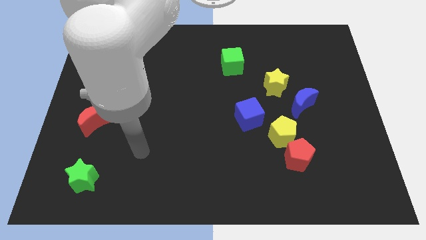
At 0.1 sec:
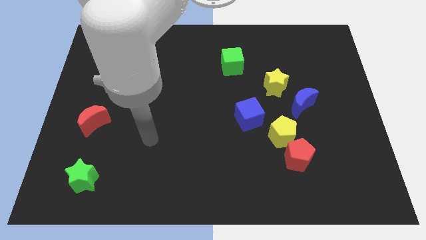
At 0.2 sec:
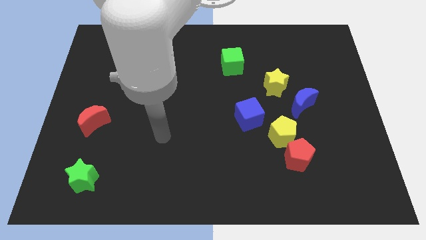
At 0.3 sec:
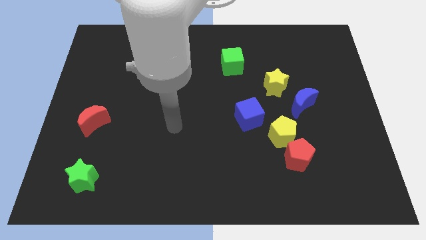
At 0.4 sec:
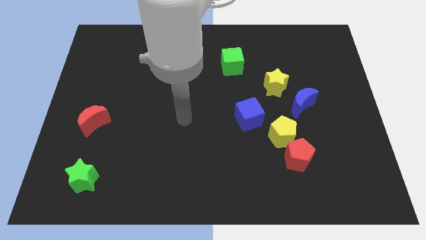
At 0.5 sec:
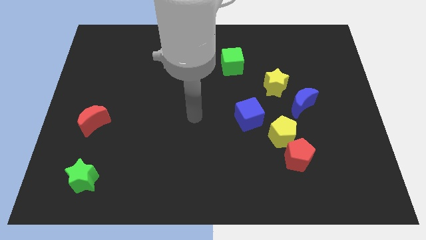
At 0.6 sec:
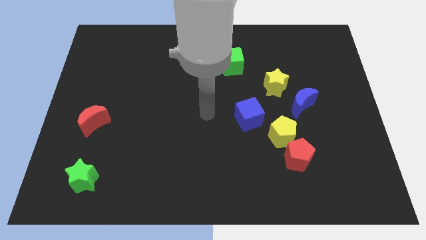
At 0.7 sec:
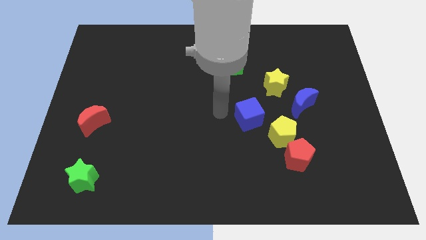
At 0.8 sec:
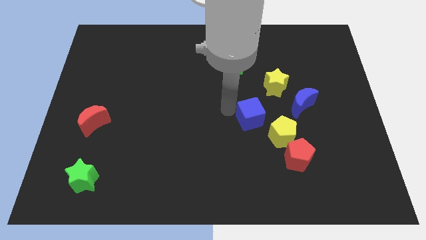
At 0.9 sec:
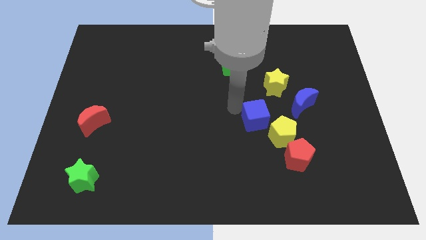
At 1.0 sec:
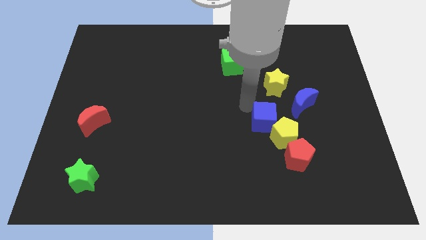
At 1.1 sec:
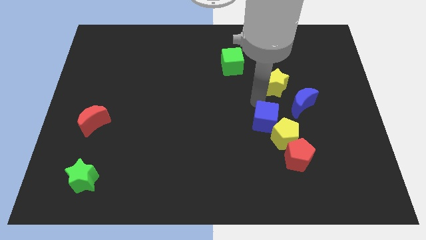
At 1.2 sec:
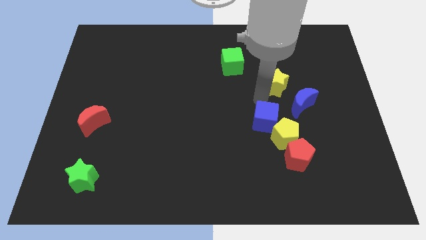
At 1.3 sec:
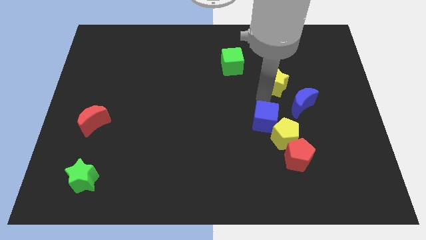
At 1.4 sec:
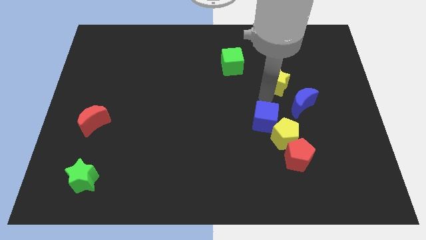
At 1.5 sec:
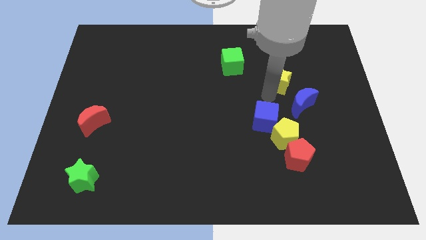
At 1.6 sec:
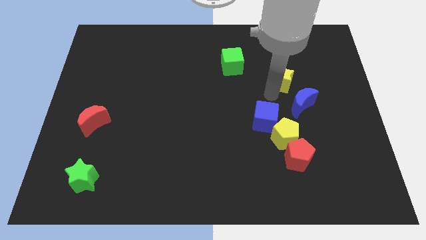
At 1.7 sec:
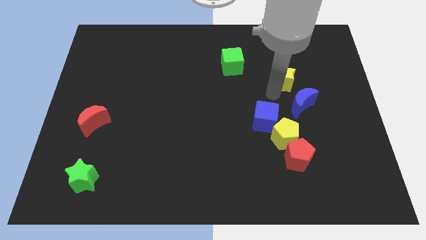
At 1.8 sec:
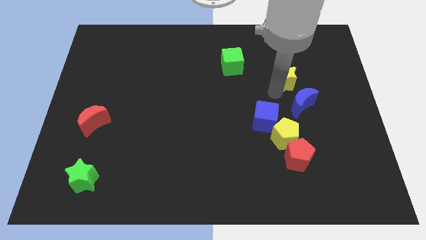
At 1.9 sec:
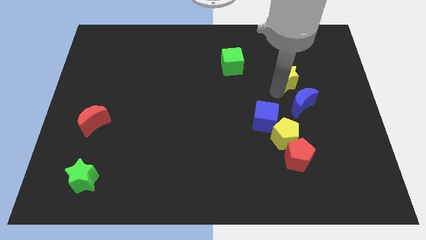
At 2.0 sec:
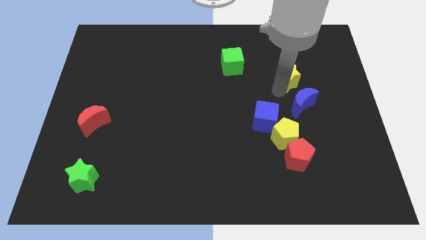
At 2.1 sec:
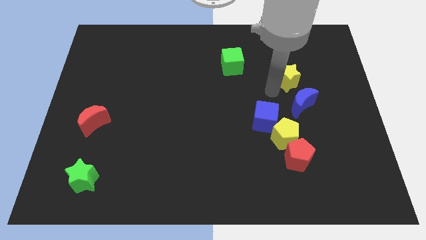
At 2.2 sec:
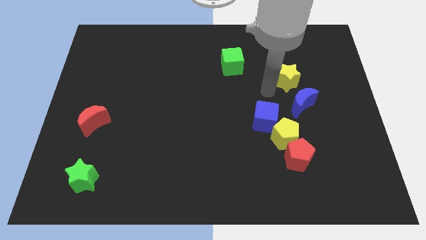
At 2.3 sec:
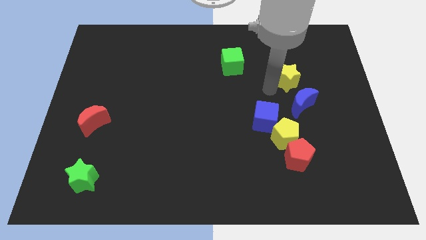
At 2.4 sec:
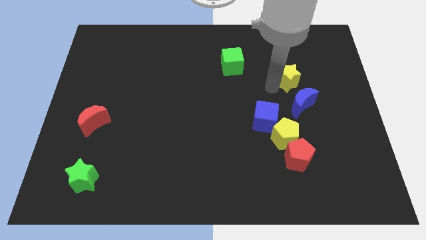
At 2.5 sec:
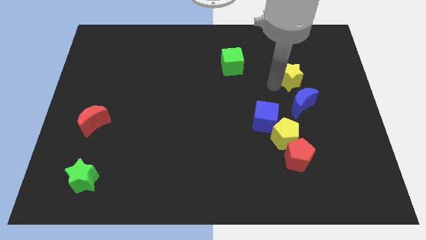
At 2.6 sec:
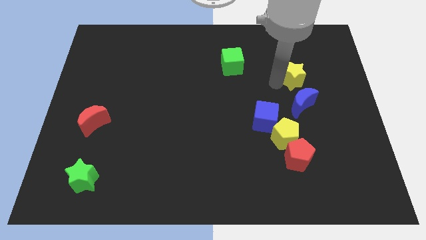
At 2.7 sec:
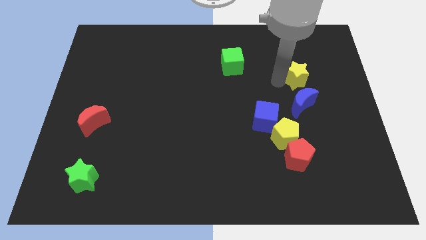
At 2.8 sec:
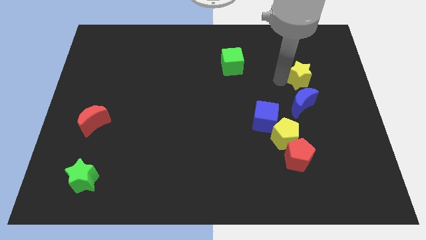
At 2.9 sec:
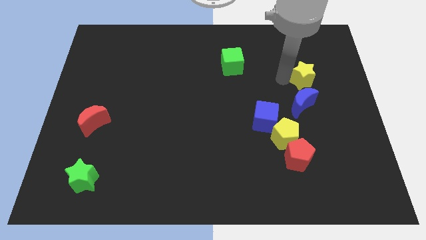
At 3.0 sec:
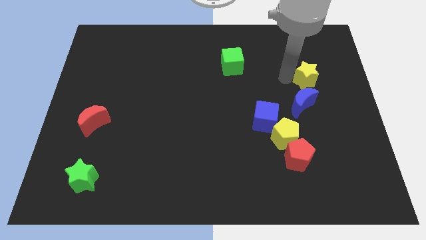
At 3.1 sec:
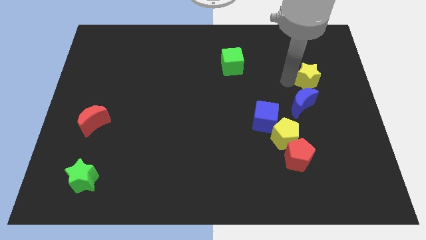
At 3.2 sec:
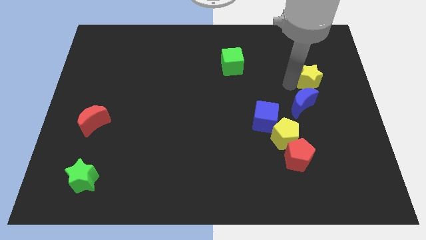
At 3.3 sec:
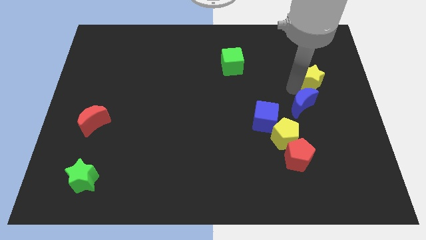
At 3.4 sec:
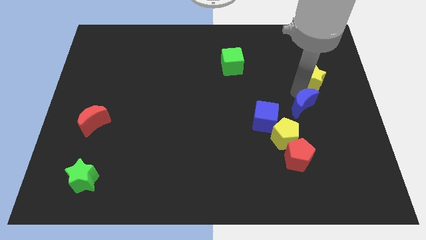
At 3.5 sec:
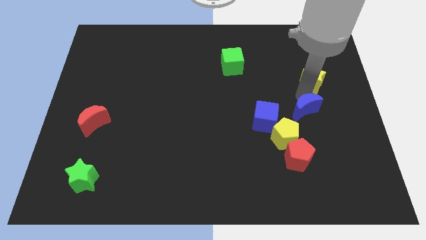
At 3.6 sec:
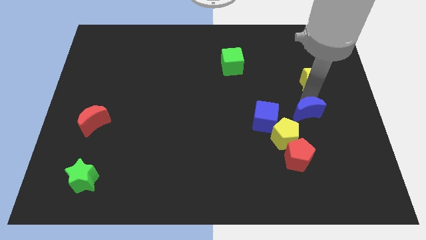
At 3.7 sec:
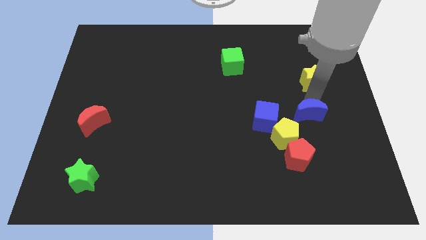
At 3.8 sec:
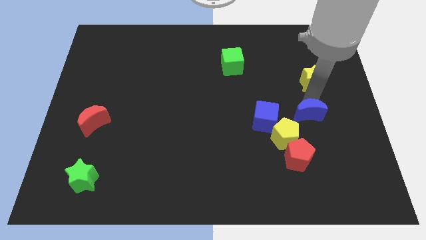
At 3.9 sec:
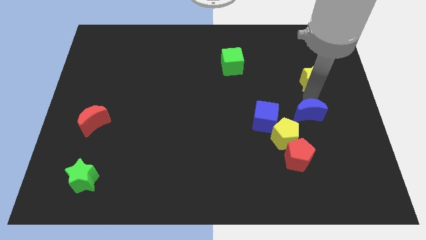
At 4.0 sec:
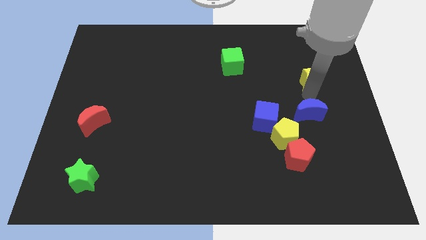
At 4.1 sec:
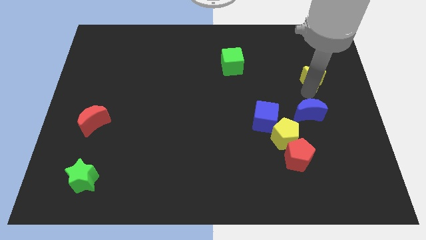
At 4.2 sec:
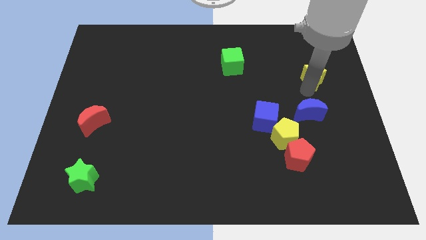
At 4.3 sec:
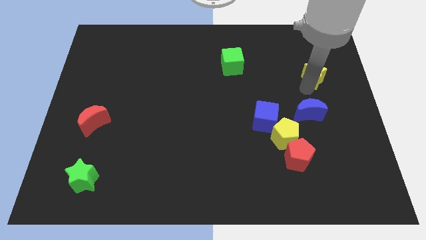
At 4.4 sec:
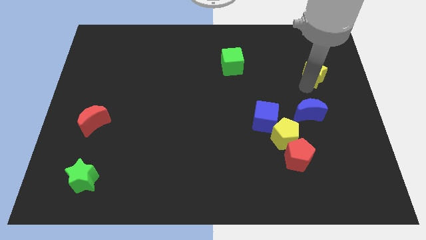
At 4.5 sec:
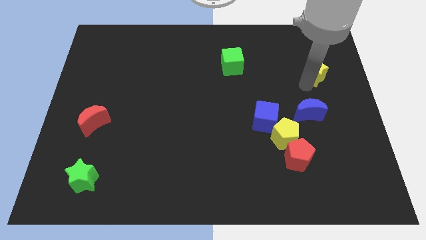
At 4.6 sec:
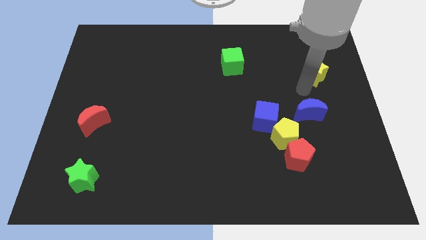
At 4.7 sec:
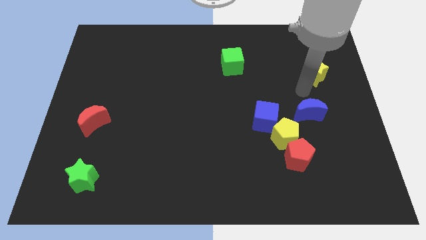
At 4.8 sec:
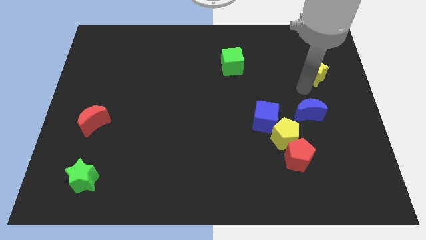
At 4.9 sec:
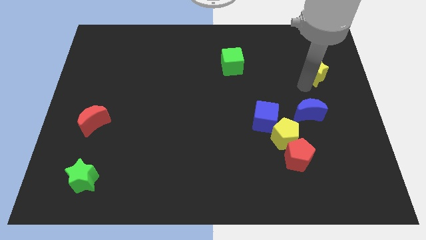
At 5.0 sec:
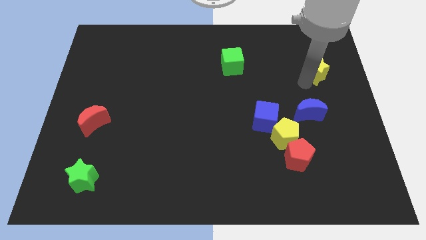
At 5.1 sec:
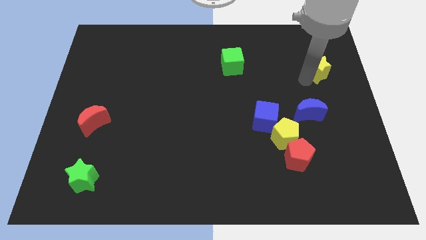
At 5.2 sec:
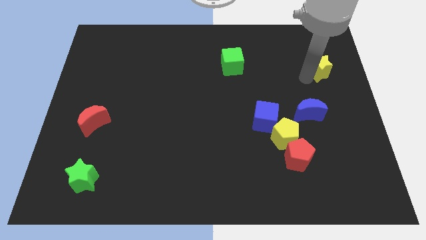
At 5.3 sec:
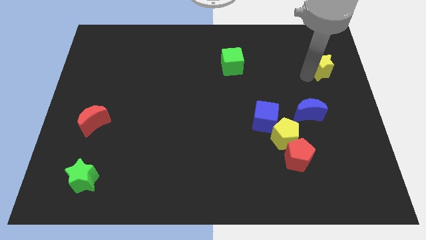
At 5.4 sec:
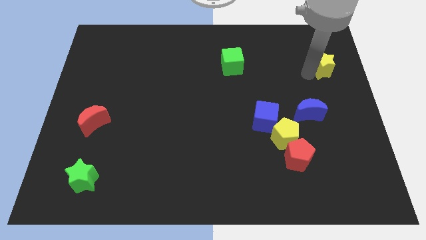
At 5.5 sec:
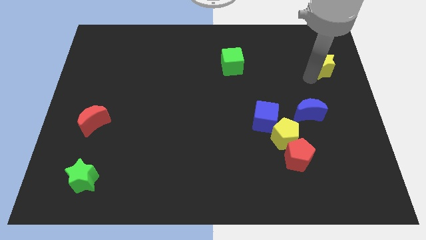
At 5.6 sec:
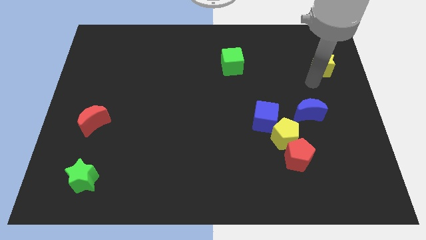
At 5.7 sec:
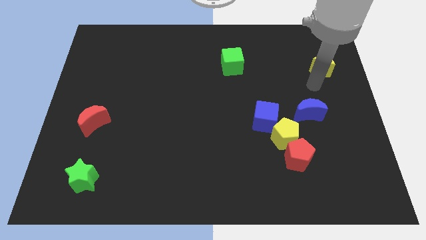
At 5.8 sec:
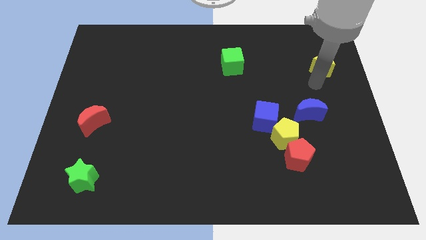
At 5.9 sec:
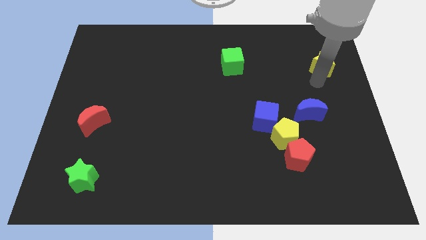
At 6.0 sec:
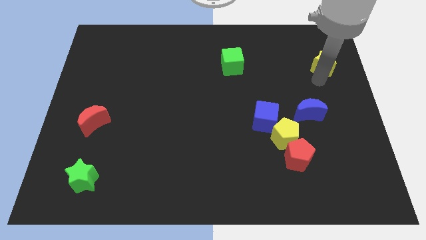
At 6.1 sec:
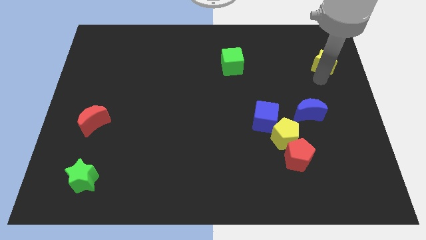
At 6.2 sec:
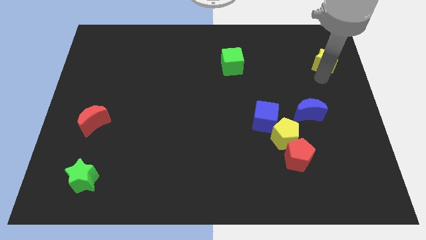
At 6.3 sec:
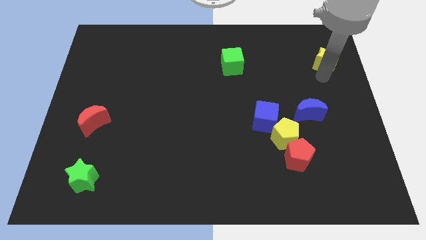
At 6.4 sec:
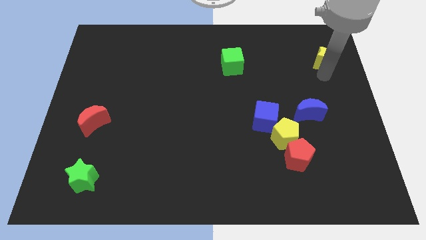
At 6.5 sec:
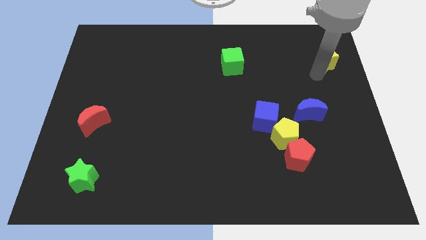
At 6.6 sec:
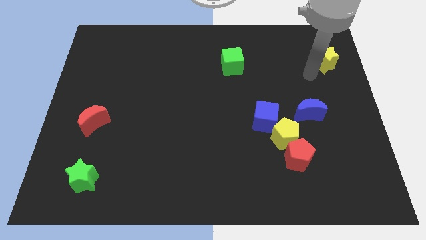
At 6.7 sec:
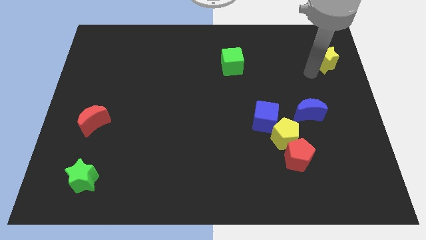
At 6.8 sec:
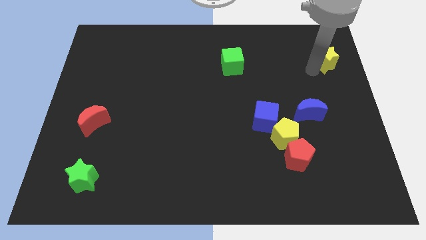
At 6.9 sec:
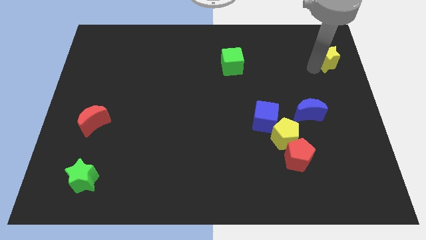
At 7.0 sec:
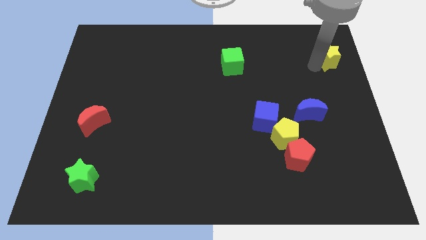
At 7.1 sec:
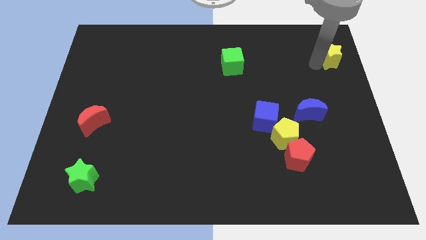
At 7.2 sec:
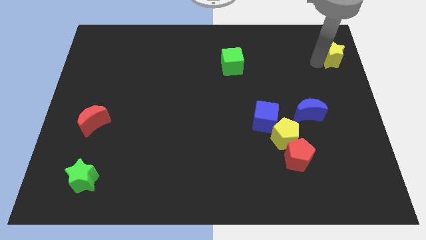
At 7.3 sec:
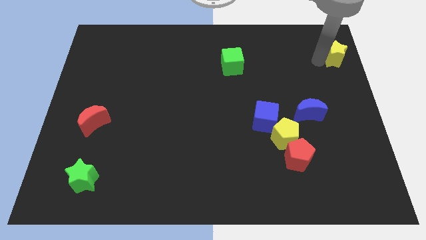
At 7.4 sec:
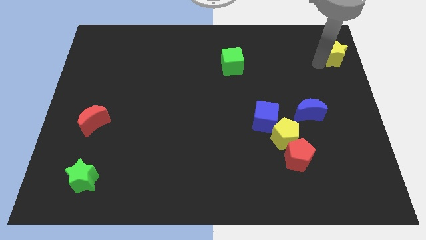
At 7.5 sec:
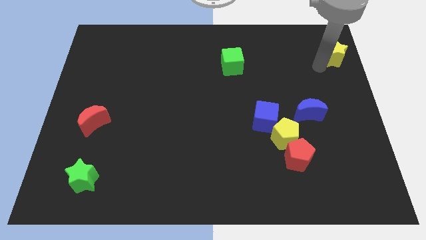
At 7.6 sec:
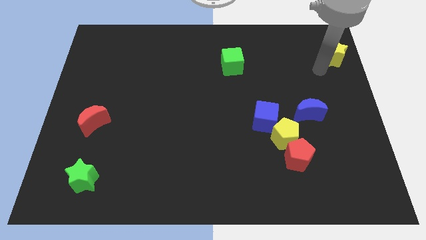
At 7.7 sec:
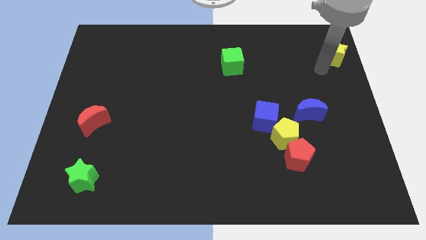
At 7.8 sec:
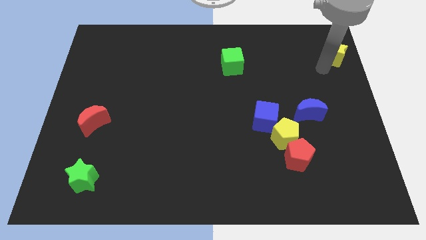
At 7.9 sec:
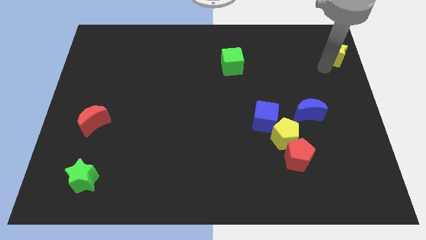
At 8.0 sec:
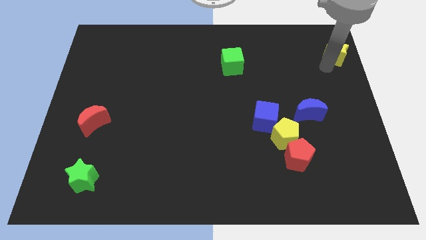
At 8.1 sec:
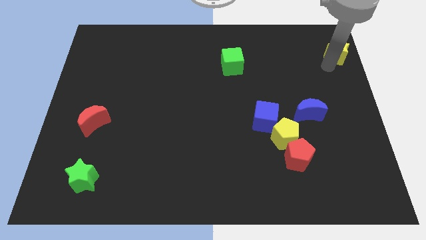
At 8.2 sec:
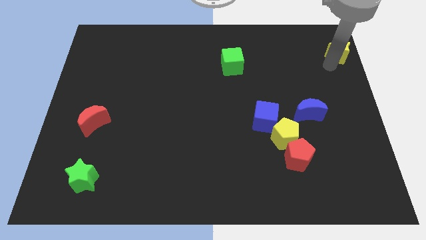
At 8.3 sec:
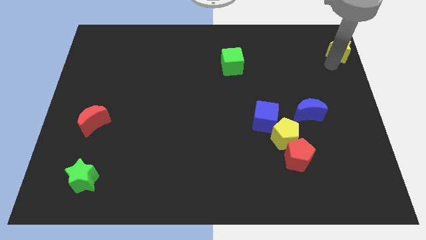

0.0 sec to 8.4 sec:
push the yellow star to the top right
